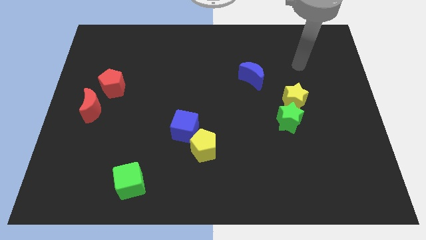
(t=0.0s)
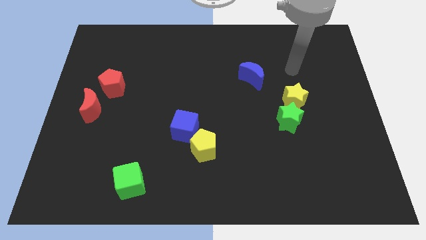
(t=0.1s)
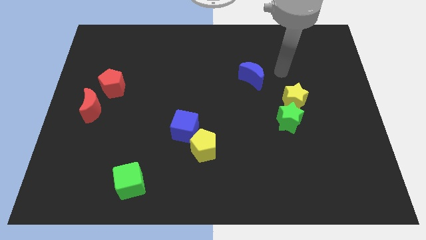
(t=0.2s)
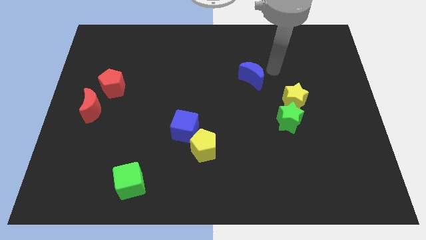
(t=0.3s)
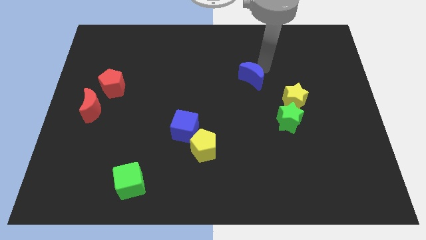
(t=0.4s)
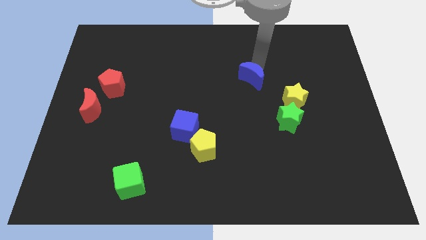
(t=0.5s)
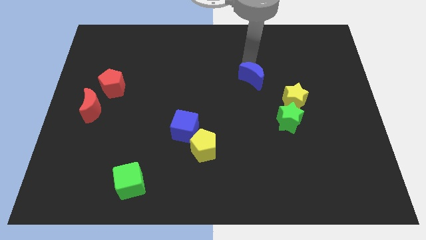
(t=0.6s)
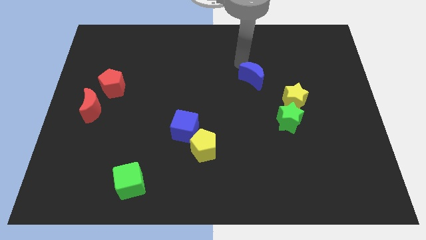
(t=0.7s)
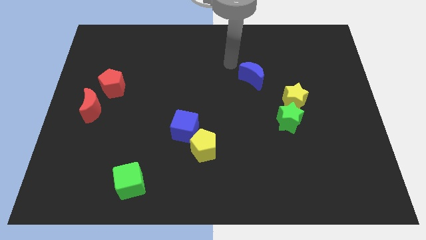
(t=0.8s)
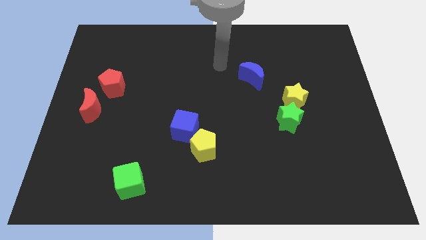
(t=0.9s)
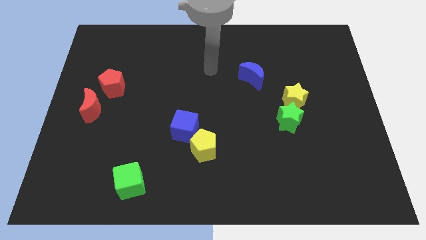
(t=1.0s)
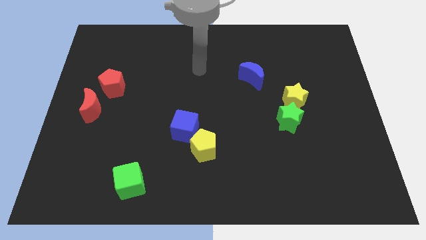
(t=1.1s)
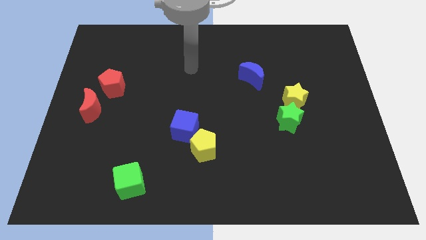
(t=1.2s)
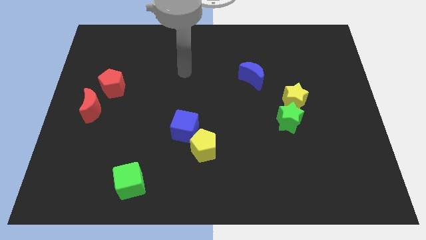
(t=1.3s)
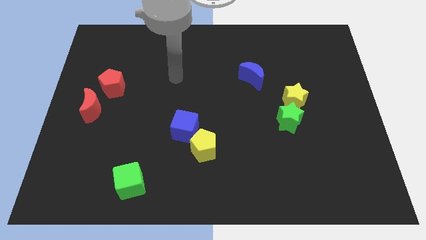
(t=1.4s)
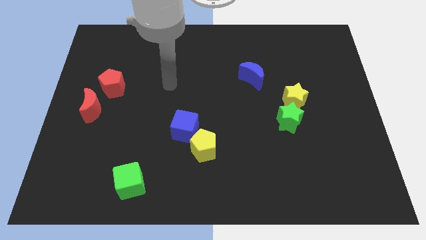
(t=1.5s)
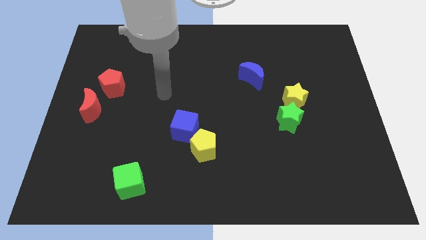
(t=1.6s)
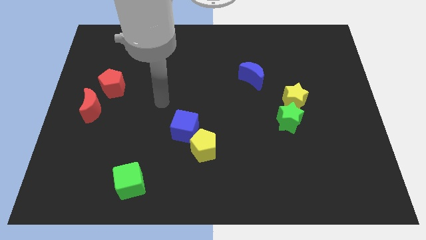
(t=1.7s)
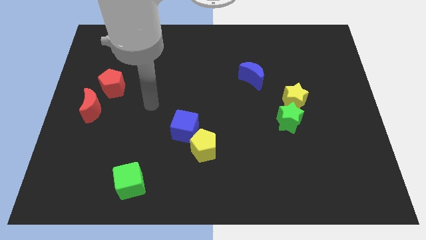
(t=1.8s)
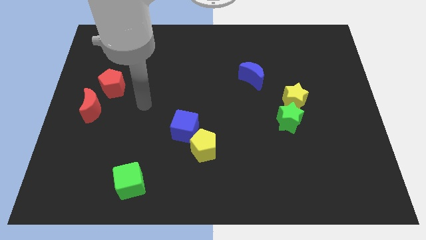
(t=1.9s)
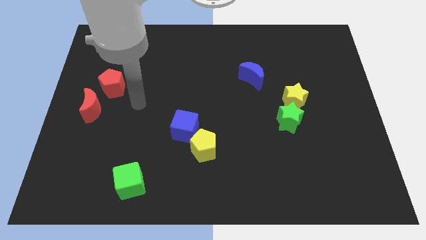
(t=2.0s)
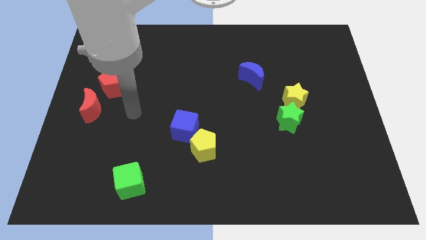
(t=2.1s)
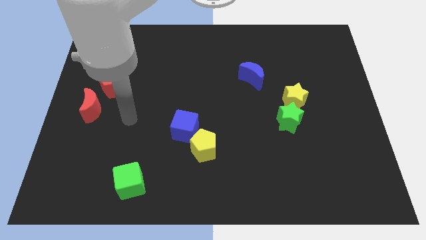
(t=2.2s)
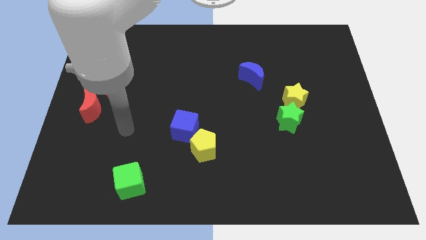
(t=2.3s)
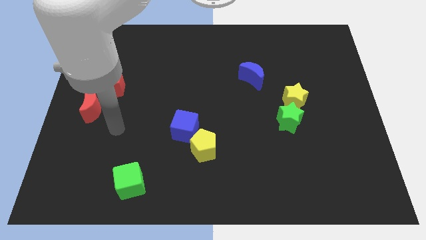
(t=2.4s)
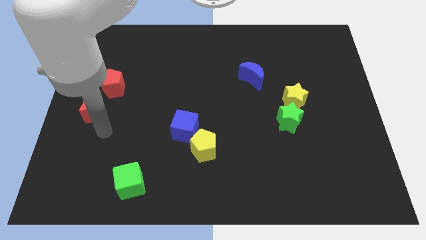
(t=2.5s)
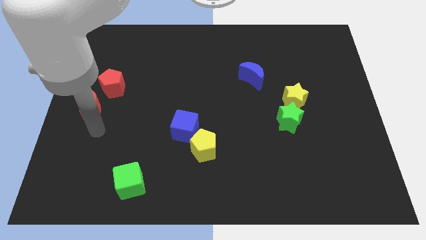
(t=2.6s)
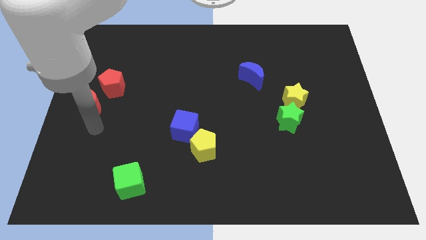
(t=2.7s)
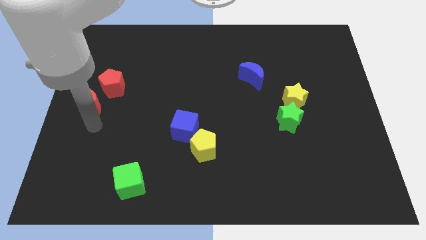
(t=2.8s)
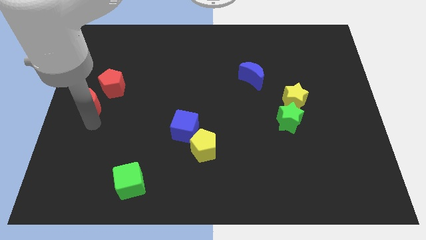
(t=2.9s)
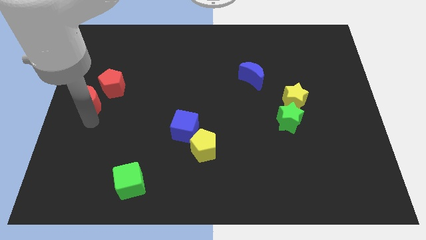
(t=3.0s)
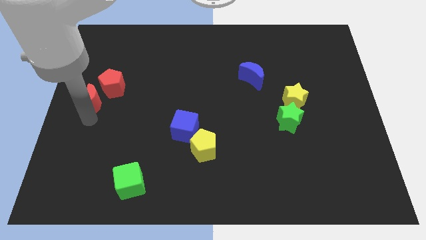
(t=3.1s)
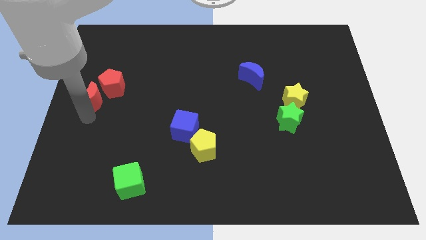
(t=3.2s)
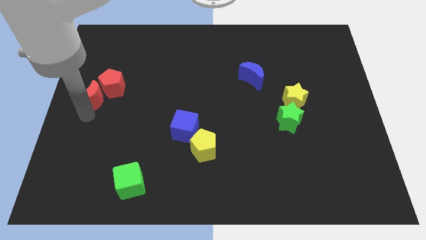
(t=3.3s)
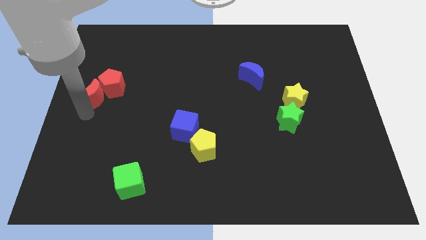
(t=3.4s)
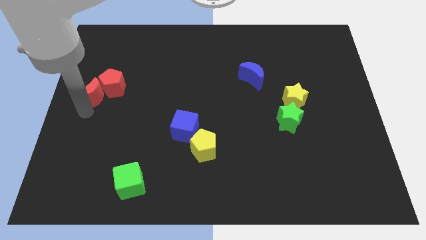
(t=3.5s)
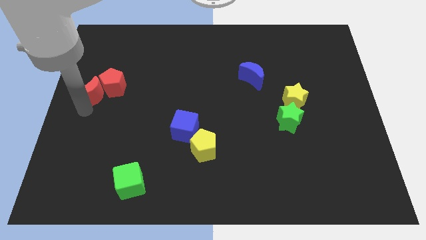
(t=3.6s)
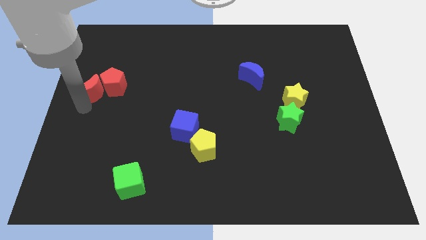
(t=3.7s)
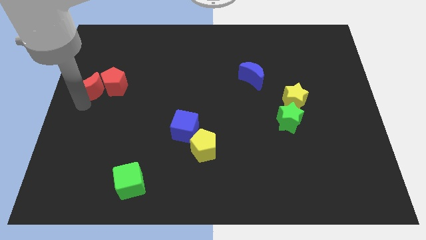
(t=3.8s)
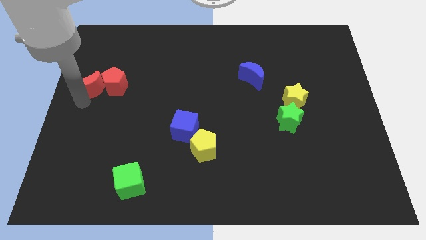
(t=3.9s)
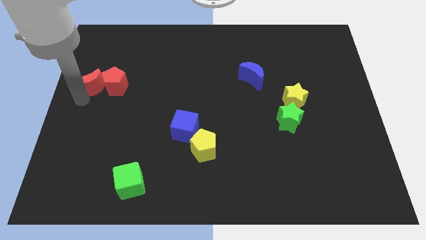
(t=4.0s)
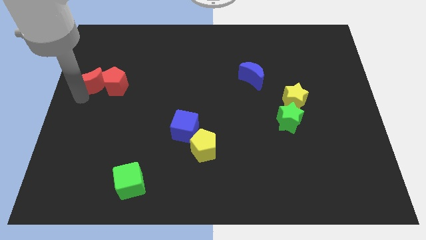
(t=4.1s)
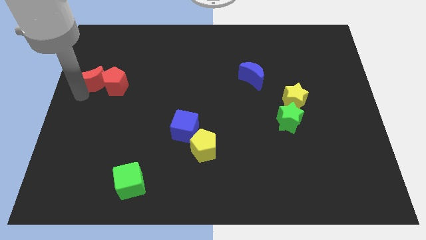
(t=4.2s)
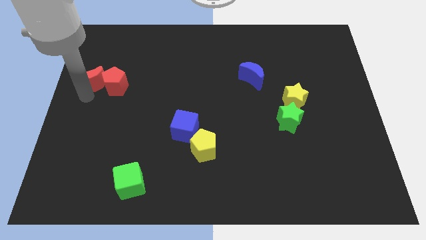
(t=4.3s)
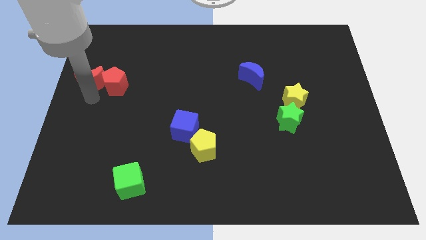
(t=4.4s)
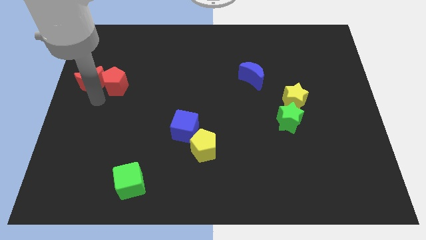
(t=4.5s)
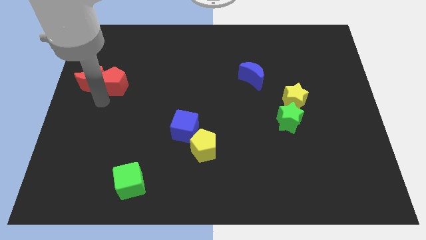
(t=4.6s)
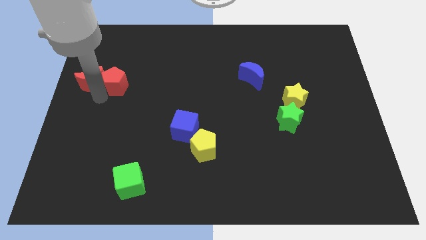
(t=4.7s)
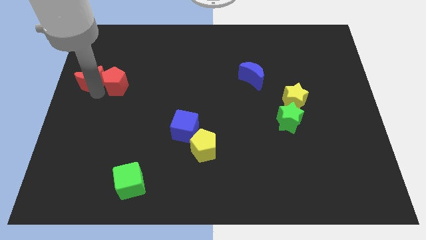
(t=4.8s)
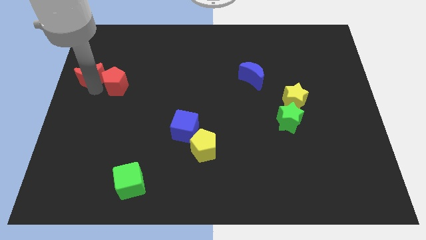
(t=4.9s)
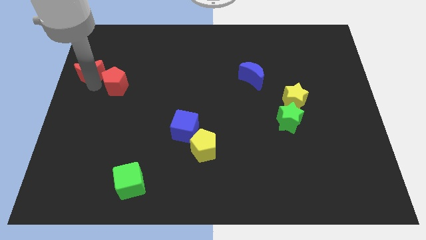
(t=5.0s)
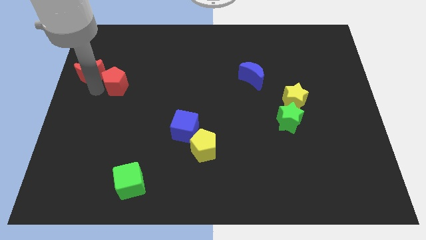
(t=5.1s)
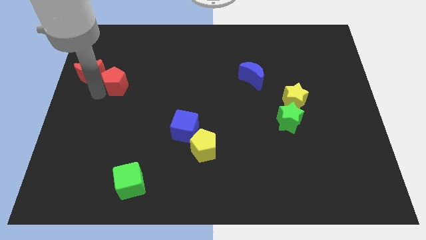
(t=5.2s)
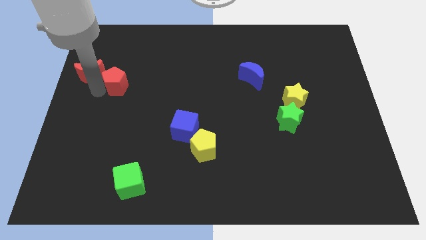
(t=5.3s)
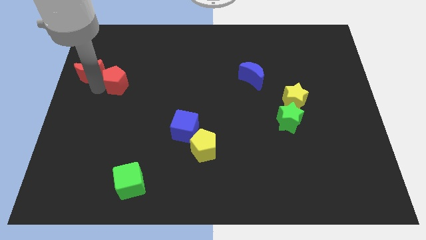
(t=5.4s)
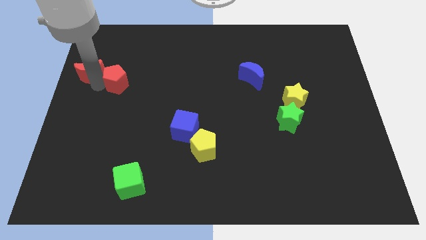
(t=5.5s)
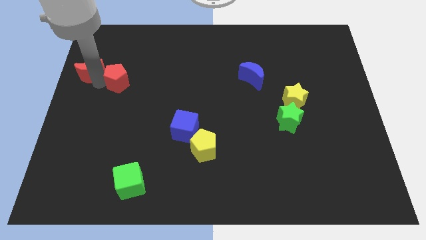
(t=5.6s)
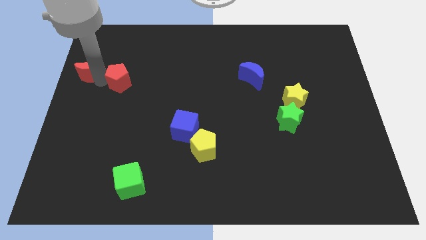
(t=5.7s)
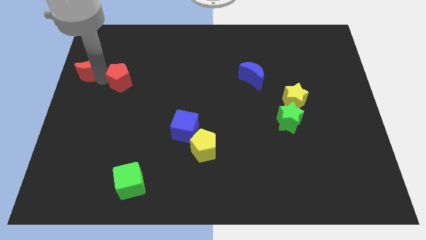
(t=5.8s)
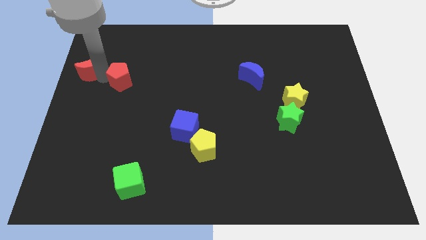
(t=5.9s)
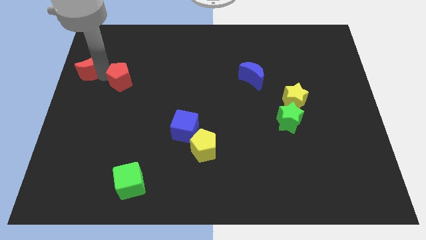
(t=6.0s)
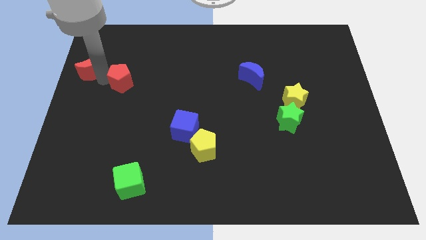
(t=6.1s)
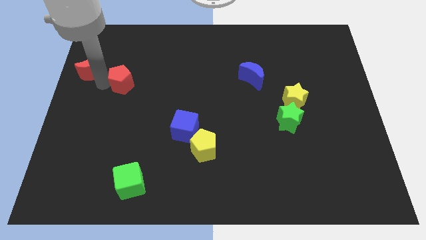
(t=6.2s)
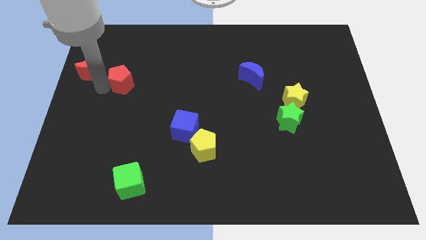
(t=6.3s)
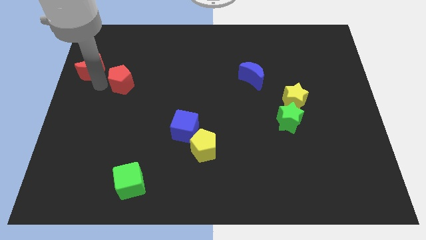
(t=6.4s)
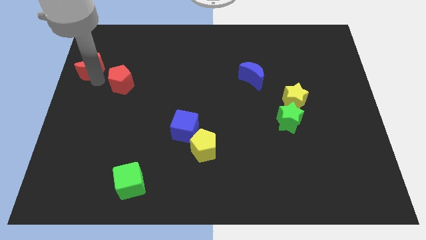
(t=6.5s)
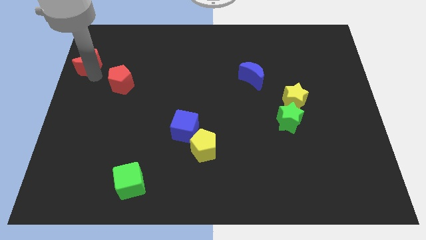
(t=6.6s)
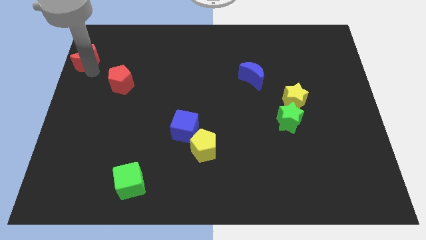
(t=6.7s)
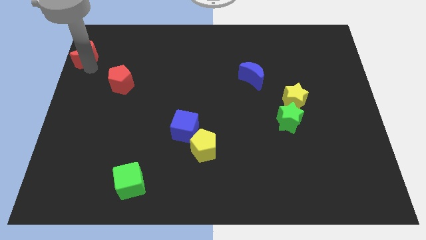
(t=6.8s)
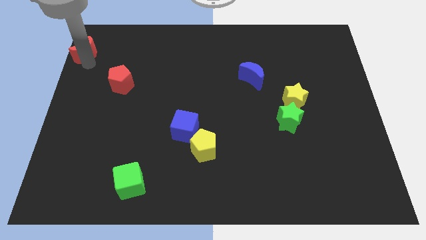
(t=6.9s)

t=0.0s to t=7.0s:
put the red moon to the top left corner
